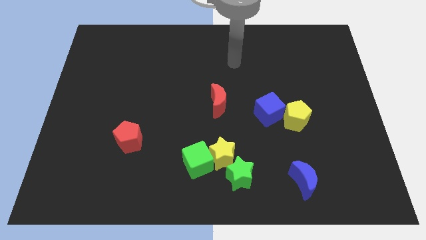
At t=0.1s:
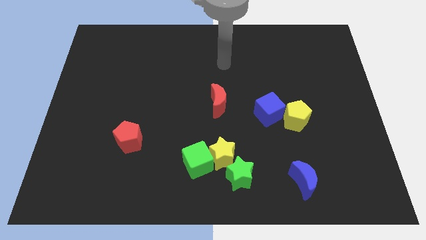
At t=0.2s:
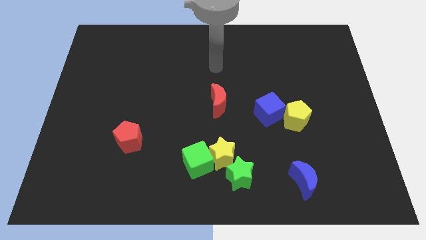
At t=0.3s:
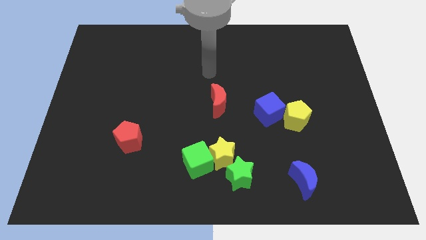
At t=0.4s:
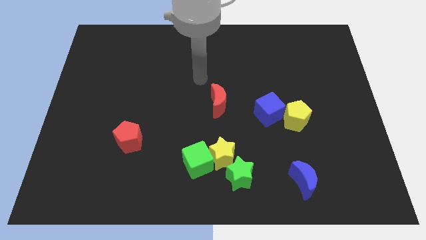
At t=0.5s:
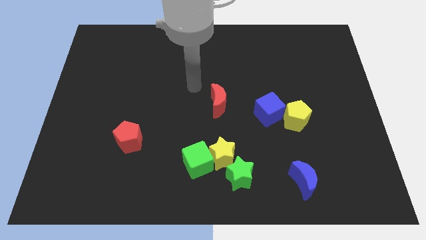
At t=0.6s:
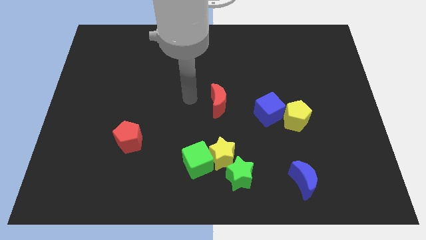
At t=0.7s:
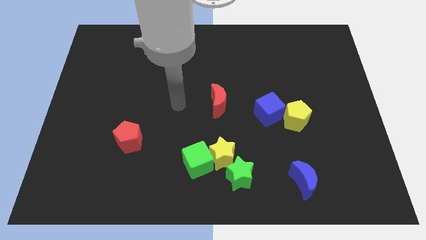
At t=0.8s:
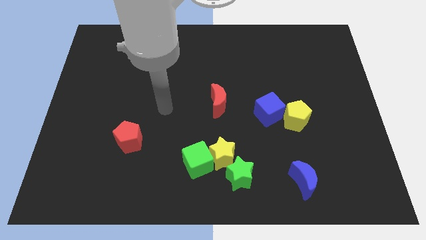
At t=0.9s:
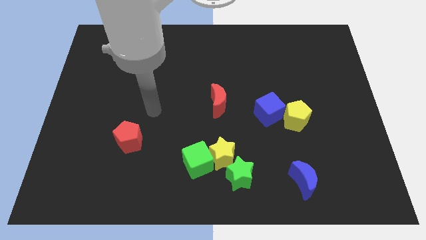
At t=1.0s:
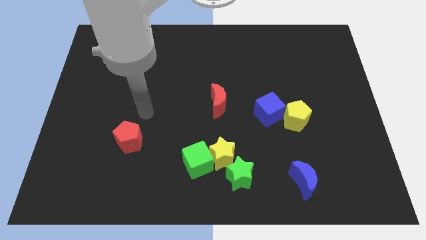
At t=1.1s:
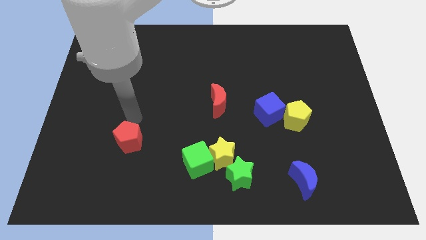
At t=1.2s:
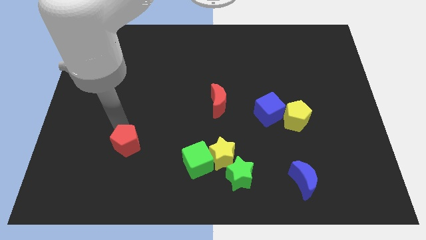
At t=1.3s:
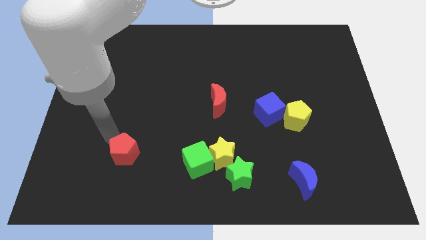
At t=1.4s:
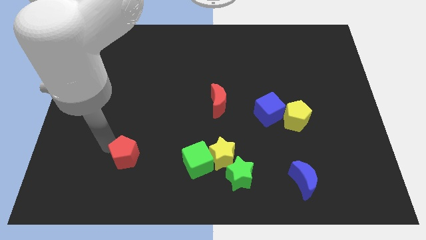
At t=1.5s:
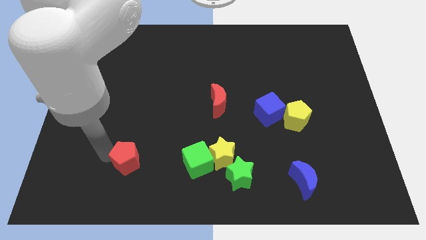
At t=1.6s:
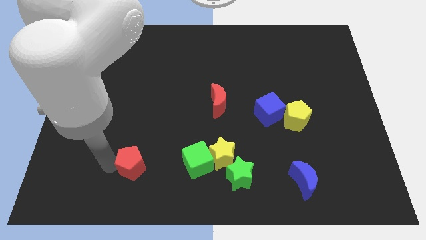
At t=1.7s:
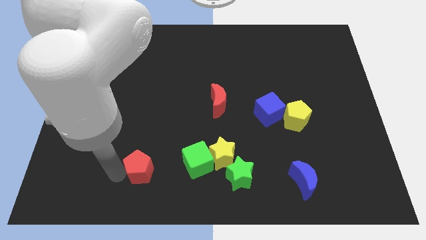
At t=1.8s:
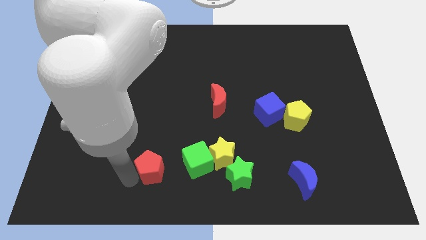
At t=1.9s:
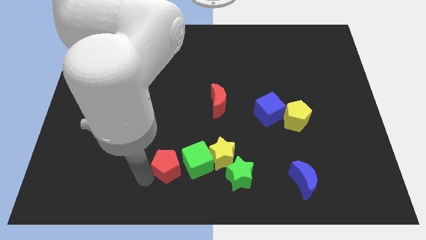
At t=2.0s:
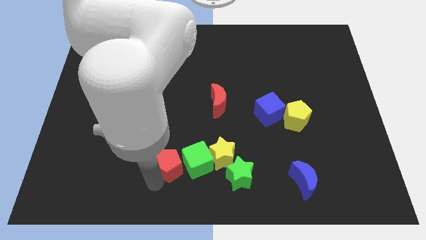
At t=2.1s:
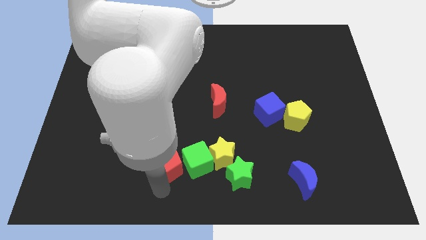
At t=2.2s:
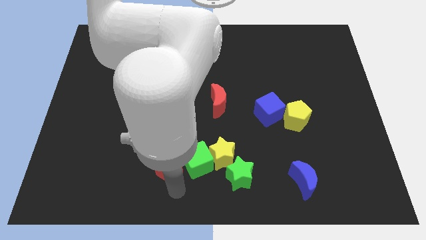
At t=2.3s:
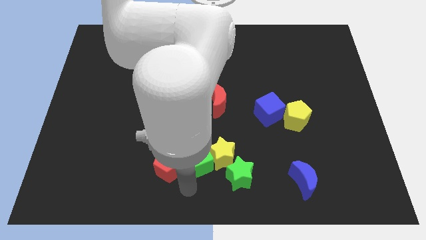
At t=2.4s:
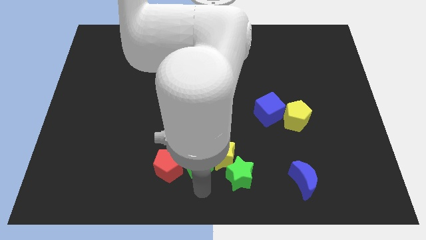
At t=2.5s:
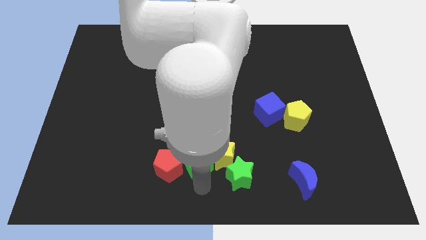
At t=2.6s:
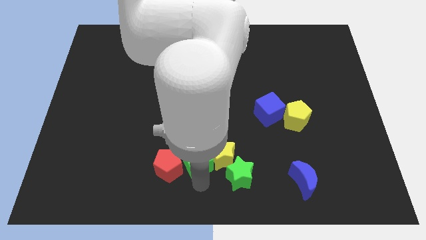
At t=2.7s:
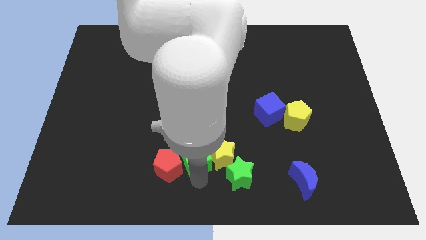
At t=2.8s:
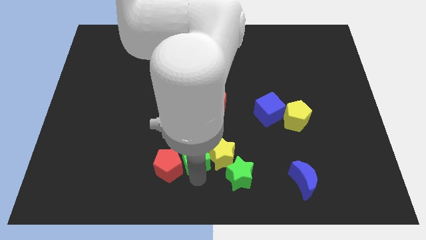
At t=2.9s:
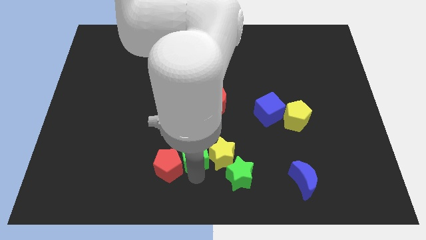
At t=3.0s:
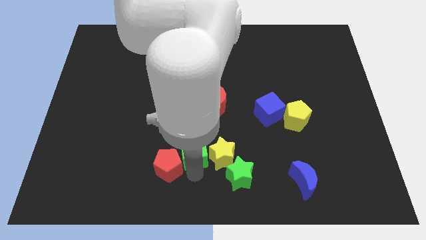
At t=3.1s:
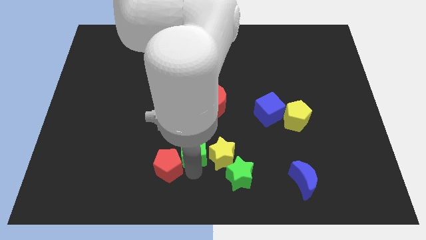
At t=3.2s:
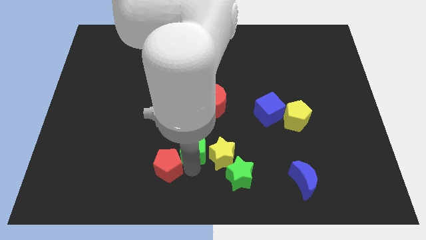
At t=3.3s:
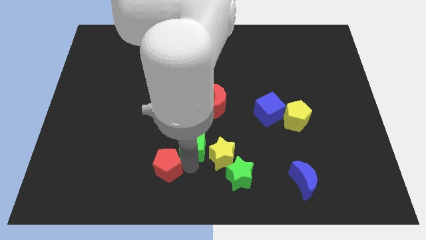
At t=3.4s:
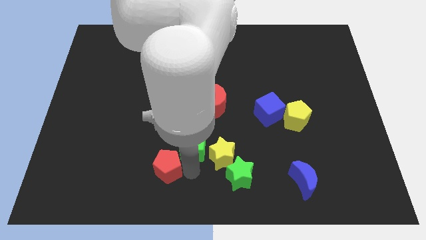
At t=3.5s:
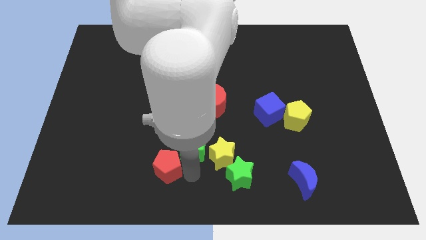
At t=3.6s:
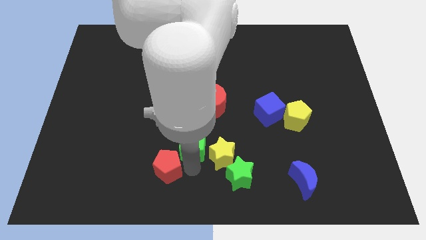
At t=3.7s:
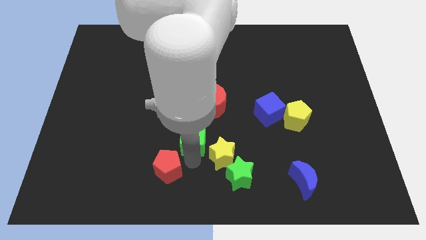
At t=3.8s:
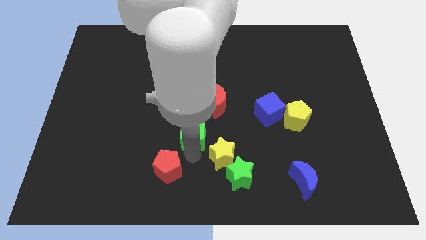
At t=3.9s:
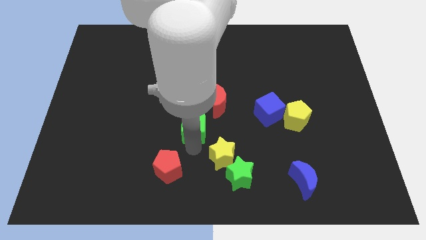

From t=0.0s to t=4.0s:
slightly slide the green cube upwards

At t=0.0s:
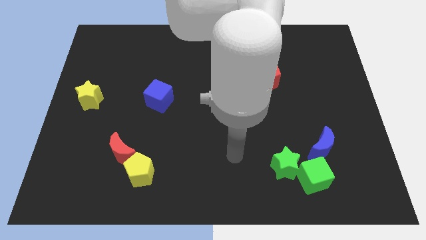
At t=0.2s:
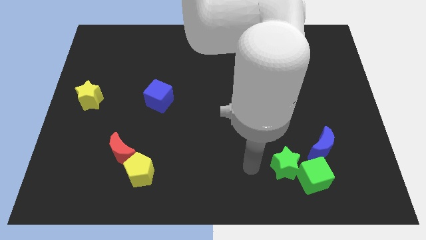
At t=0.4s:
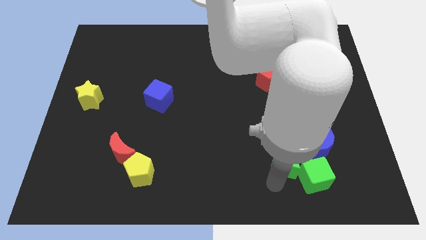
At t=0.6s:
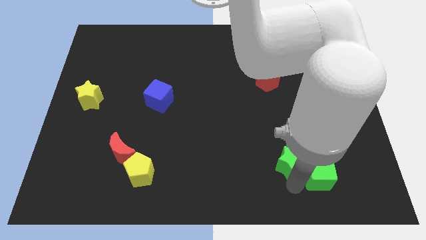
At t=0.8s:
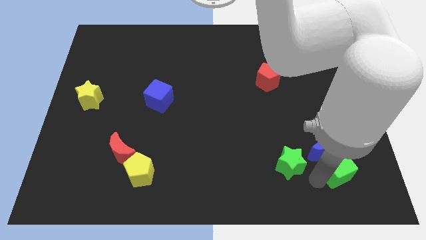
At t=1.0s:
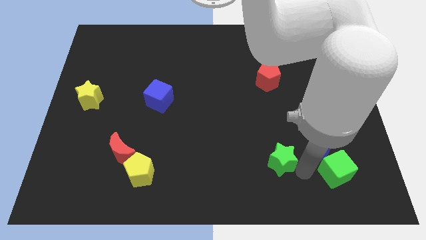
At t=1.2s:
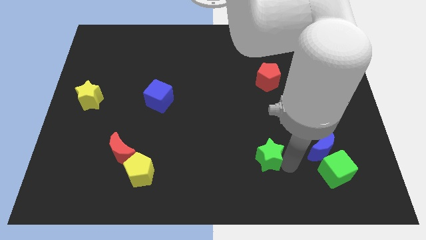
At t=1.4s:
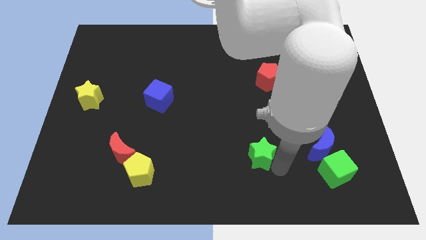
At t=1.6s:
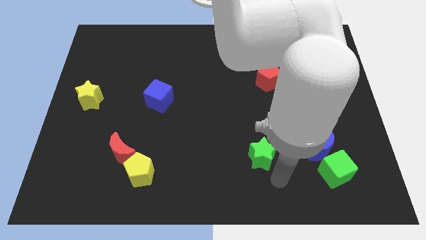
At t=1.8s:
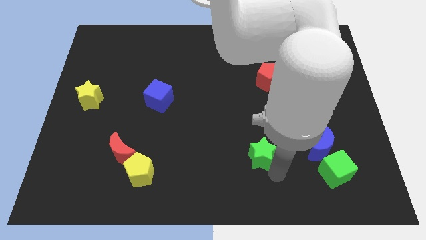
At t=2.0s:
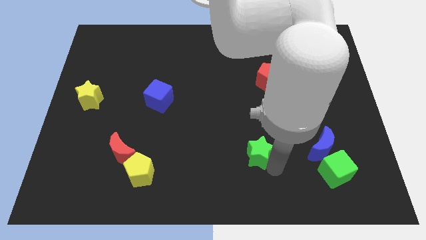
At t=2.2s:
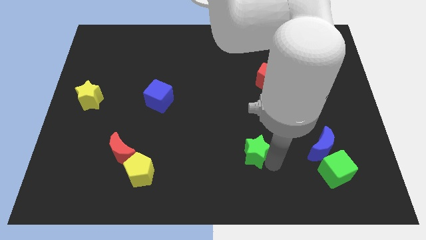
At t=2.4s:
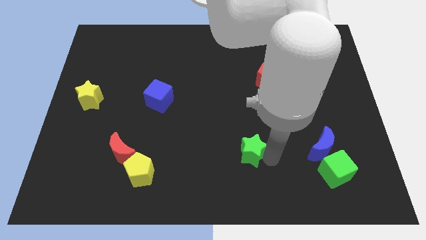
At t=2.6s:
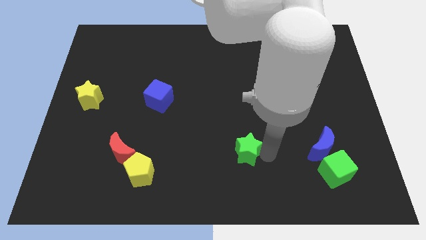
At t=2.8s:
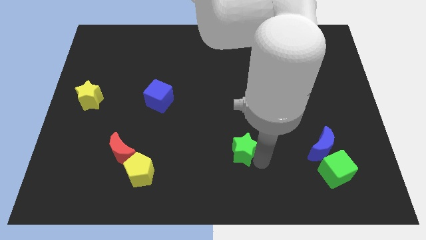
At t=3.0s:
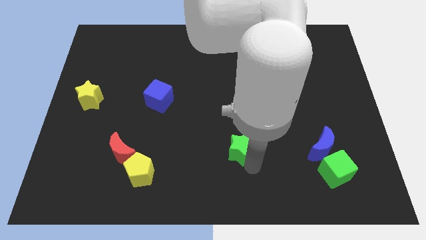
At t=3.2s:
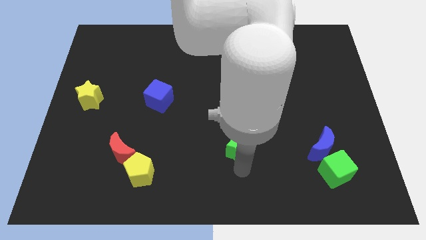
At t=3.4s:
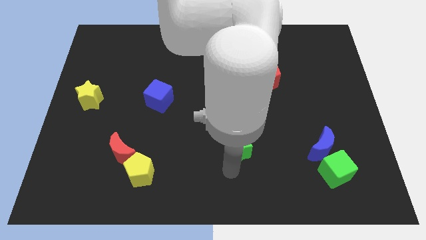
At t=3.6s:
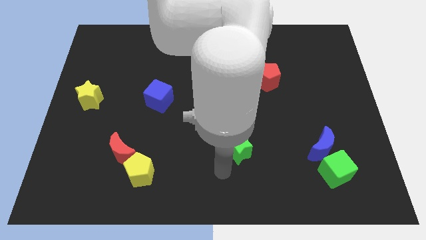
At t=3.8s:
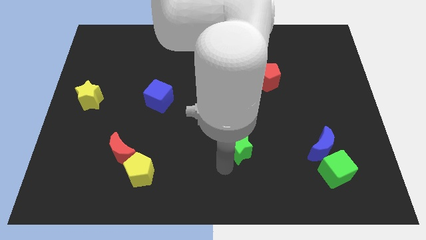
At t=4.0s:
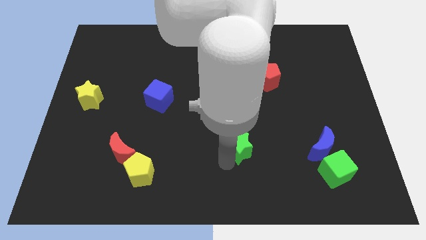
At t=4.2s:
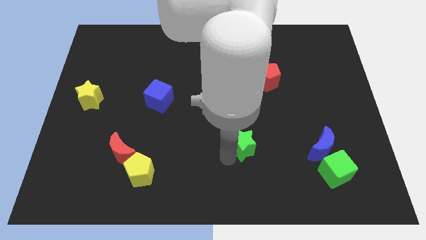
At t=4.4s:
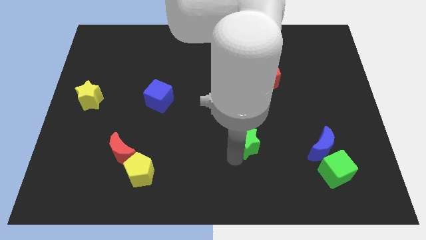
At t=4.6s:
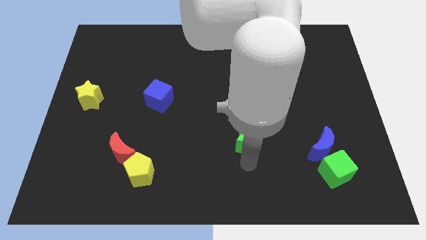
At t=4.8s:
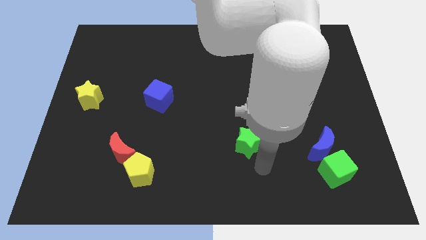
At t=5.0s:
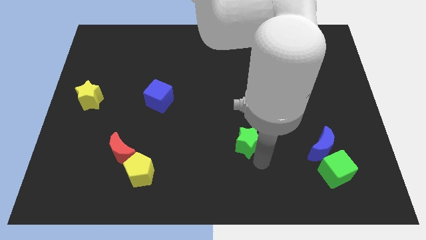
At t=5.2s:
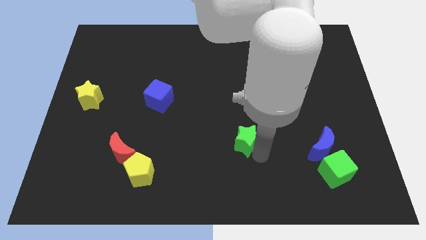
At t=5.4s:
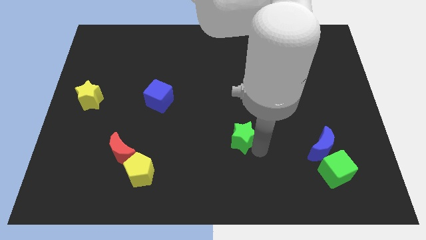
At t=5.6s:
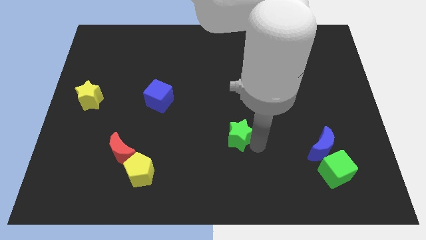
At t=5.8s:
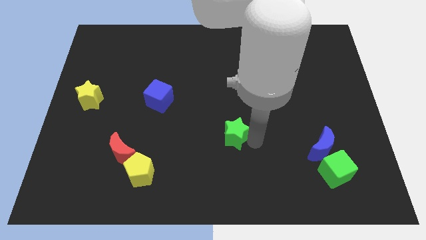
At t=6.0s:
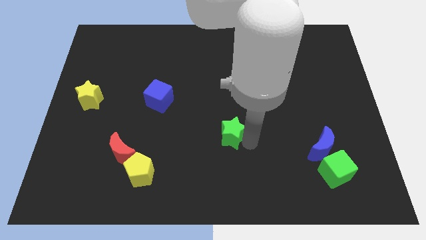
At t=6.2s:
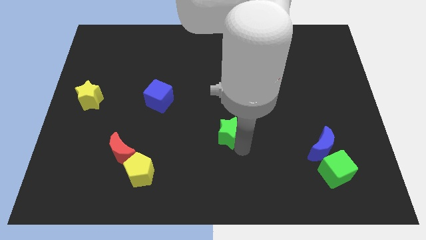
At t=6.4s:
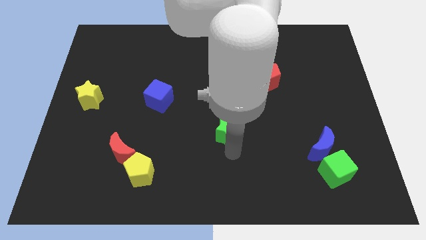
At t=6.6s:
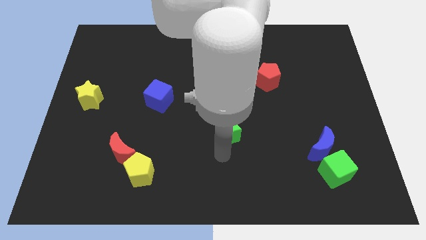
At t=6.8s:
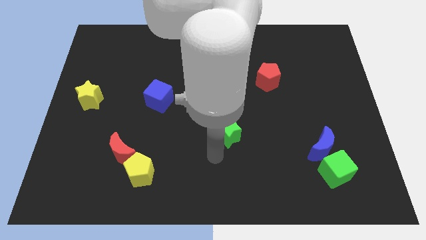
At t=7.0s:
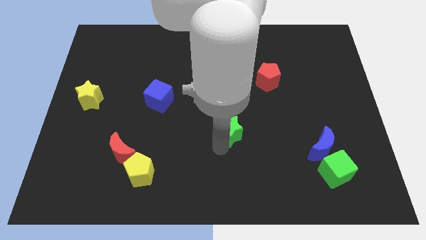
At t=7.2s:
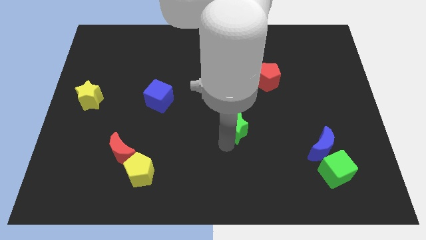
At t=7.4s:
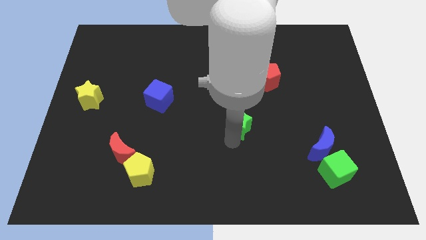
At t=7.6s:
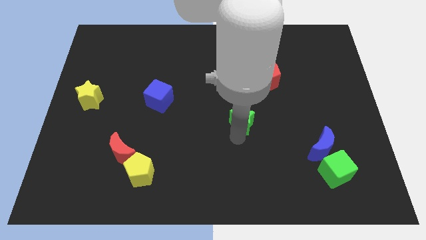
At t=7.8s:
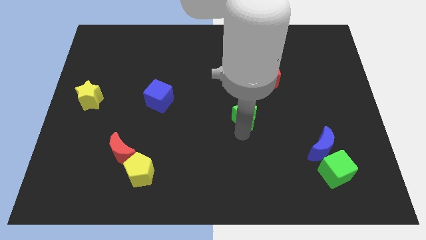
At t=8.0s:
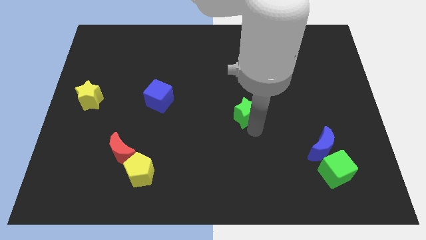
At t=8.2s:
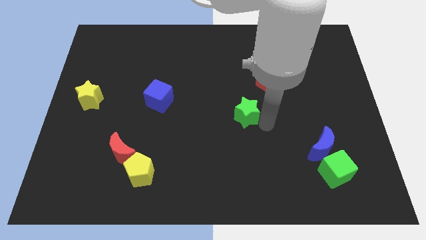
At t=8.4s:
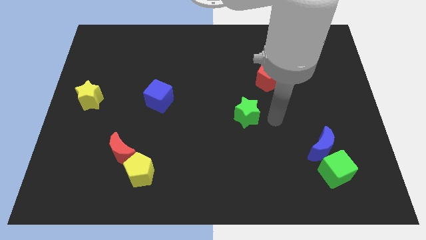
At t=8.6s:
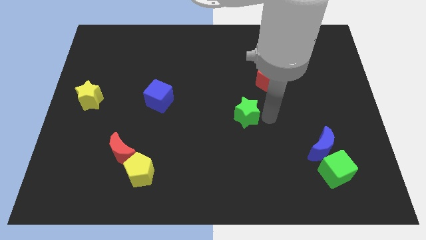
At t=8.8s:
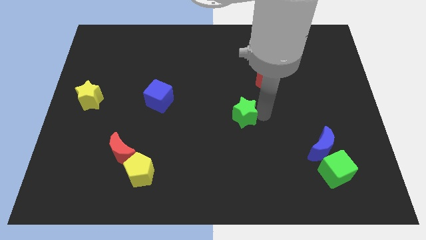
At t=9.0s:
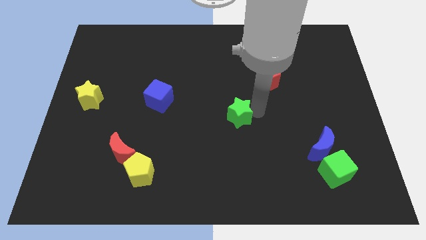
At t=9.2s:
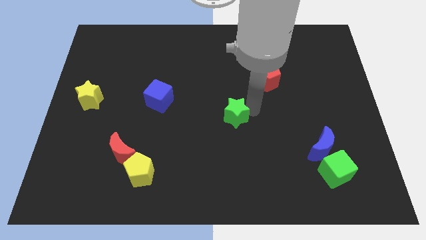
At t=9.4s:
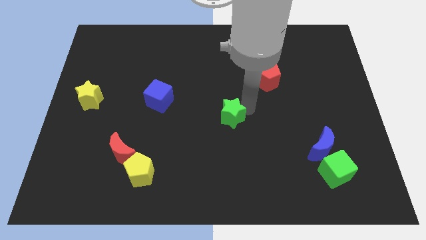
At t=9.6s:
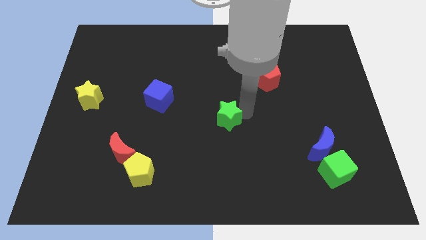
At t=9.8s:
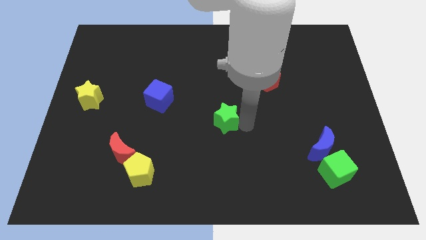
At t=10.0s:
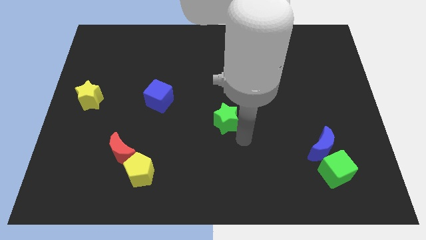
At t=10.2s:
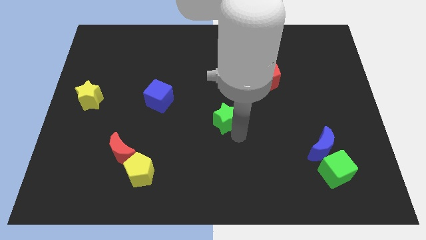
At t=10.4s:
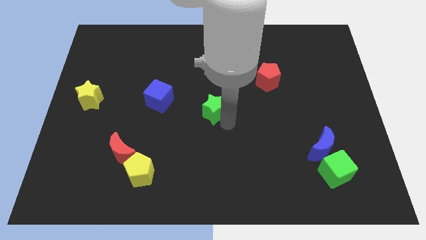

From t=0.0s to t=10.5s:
push the green star up and then to the left
